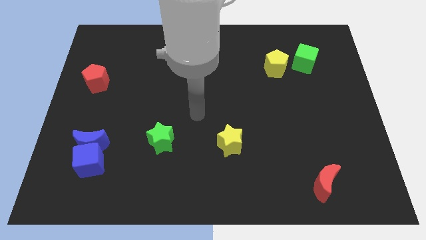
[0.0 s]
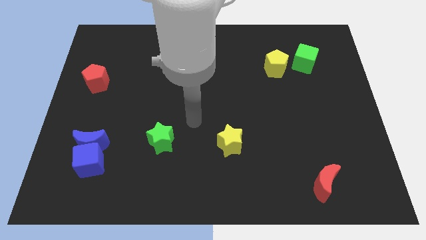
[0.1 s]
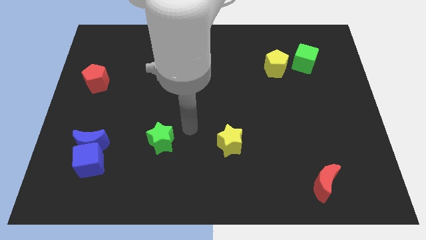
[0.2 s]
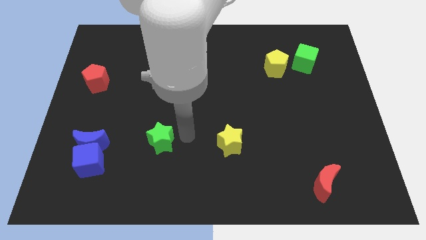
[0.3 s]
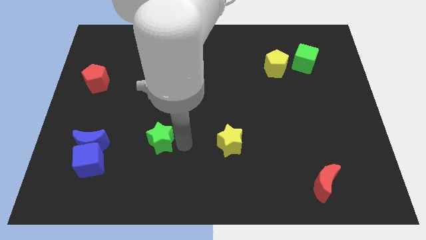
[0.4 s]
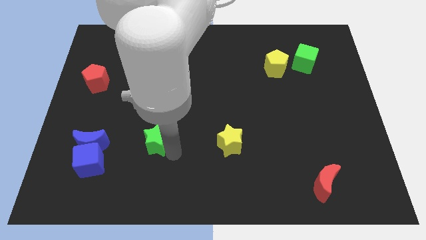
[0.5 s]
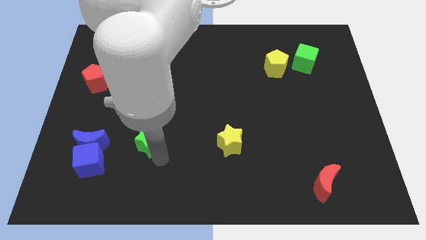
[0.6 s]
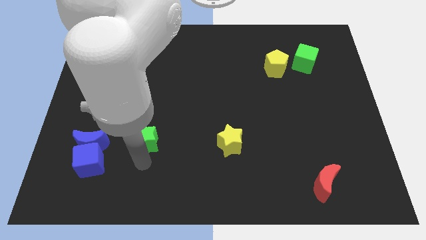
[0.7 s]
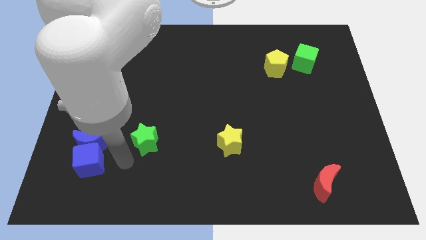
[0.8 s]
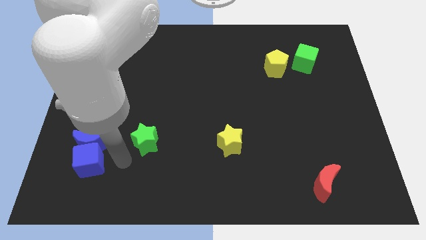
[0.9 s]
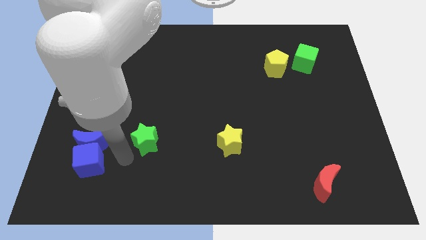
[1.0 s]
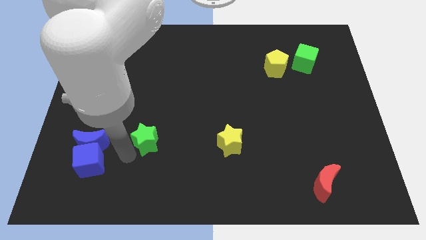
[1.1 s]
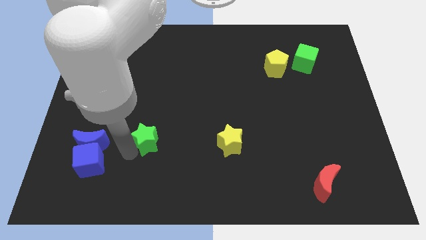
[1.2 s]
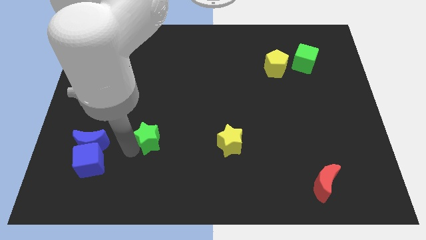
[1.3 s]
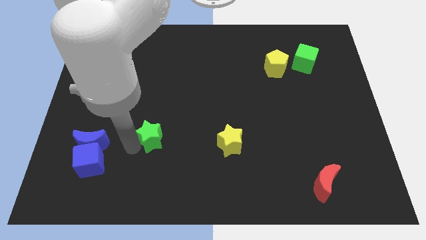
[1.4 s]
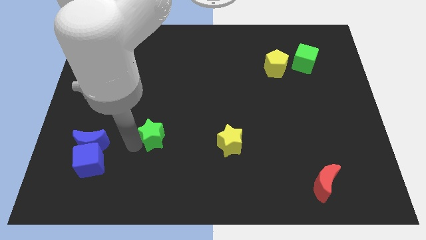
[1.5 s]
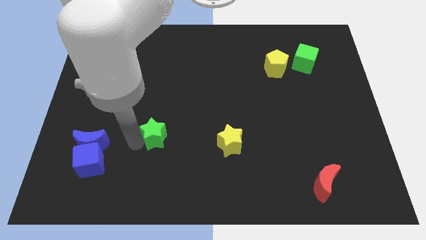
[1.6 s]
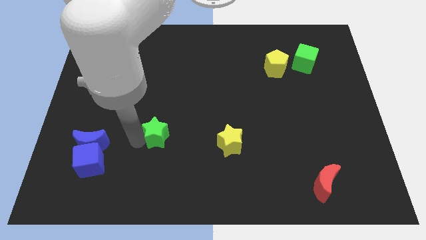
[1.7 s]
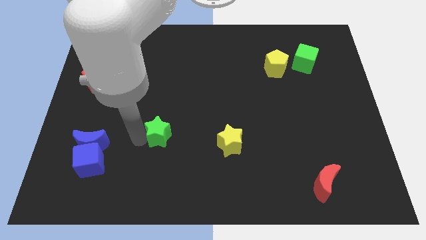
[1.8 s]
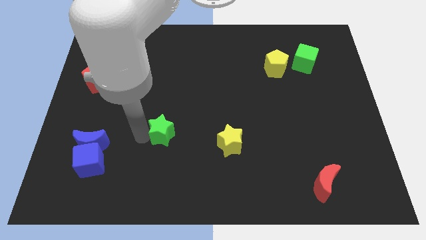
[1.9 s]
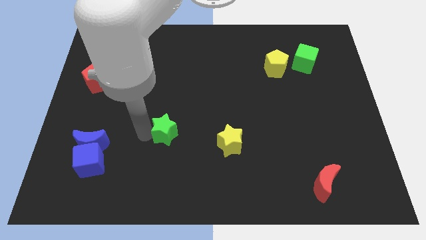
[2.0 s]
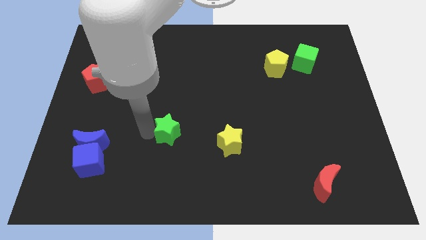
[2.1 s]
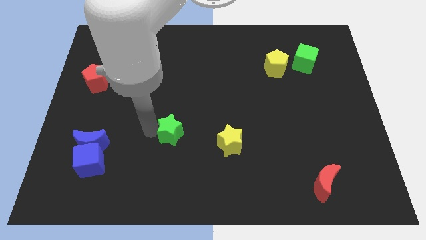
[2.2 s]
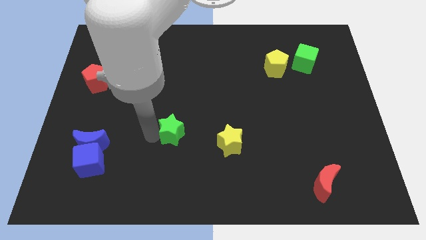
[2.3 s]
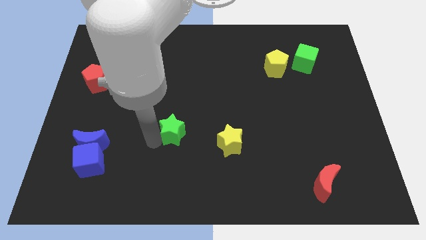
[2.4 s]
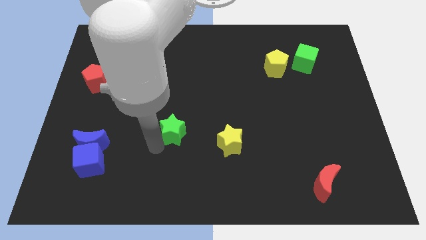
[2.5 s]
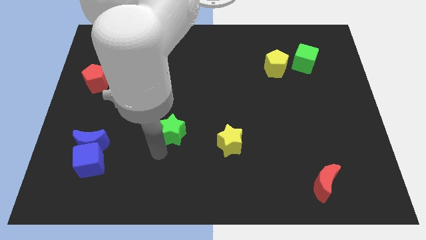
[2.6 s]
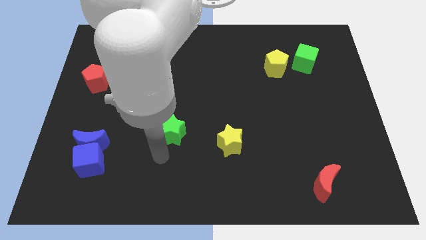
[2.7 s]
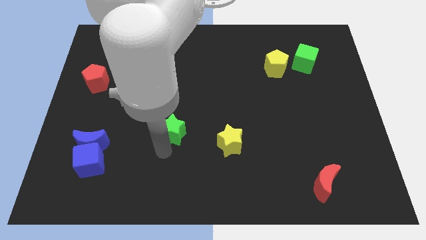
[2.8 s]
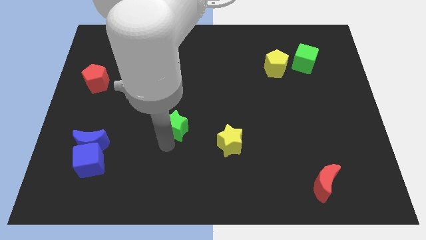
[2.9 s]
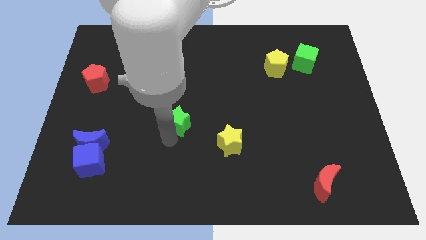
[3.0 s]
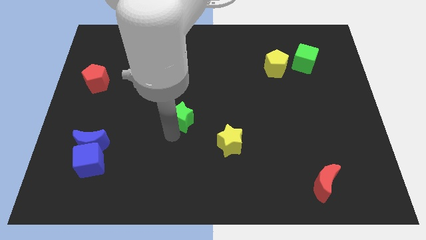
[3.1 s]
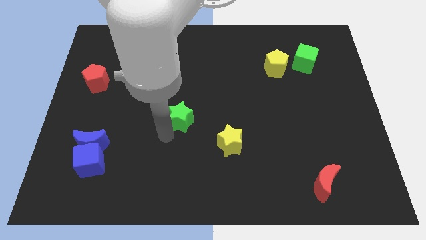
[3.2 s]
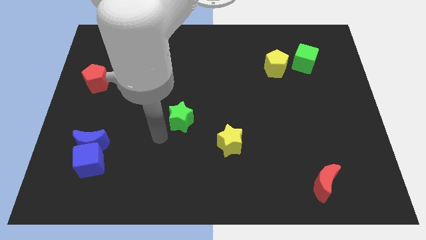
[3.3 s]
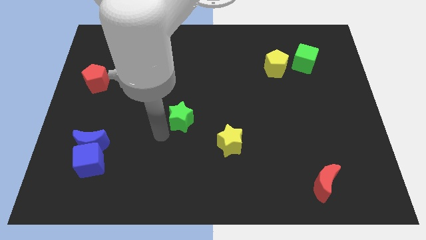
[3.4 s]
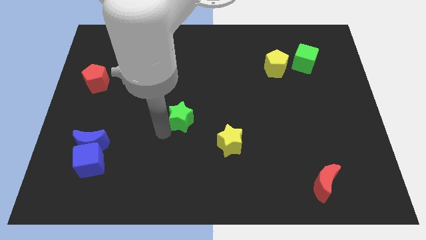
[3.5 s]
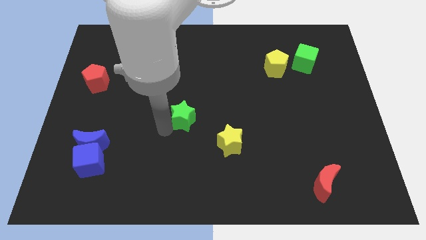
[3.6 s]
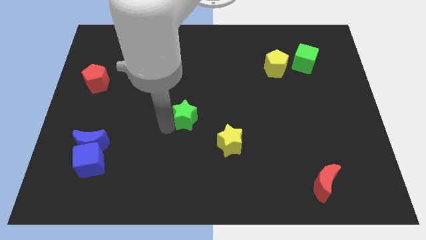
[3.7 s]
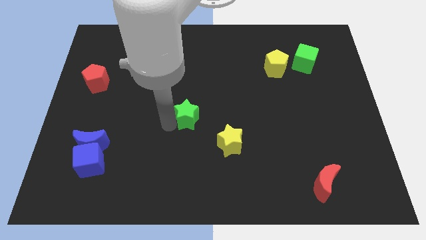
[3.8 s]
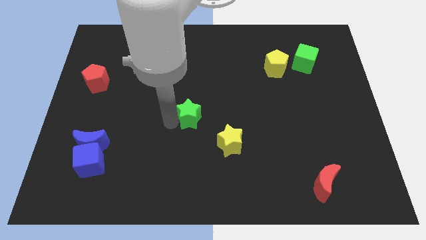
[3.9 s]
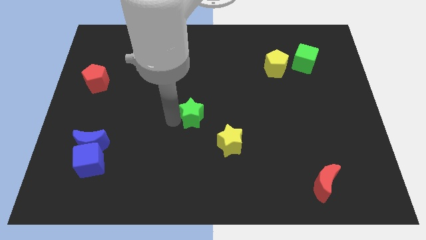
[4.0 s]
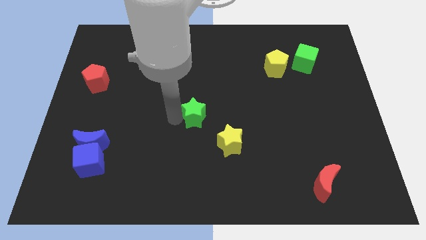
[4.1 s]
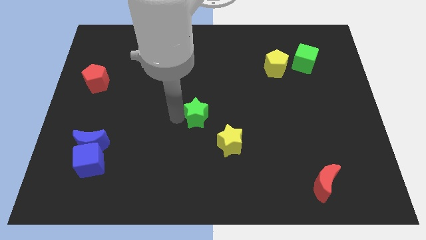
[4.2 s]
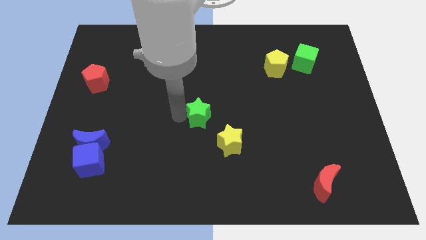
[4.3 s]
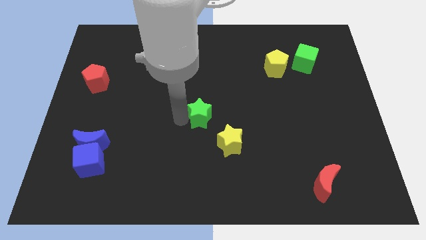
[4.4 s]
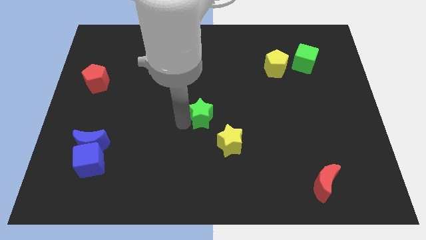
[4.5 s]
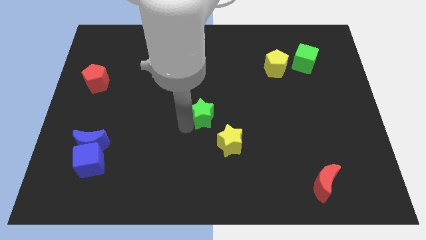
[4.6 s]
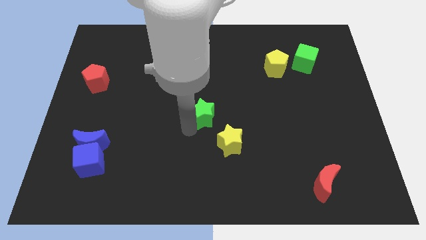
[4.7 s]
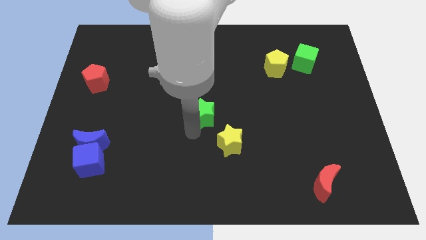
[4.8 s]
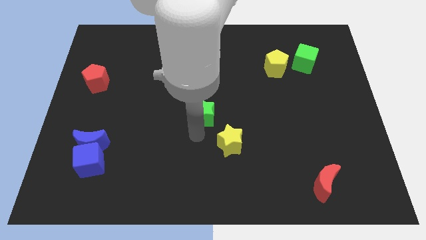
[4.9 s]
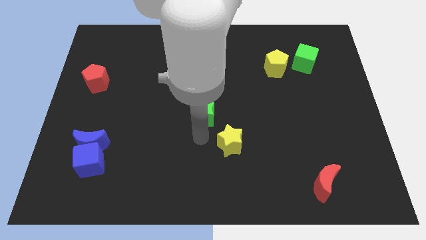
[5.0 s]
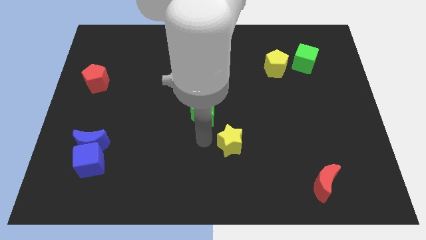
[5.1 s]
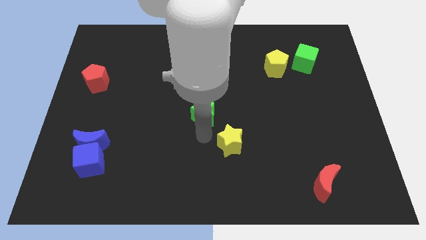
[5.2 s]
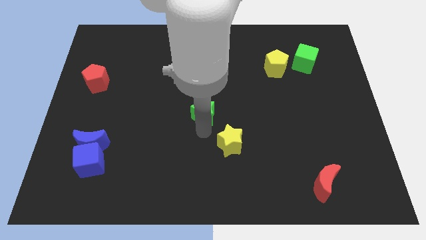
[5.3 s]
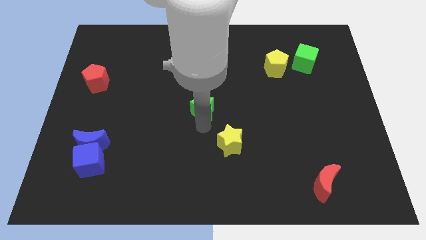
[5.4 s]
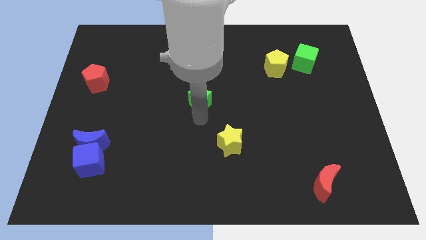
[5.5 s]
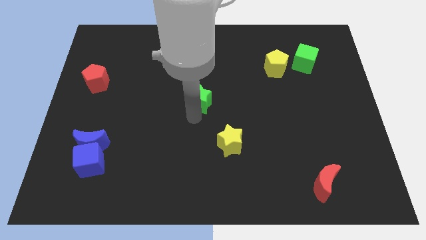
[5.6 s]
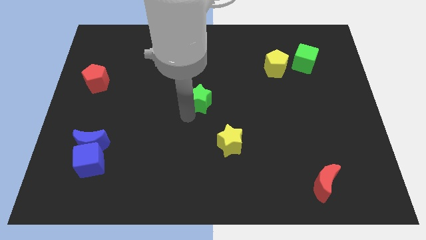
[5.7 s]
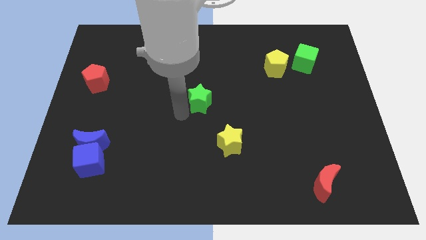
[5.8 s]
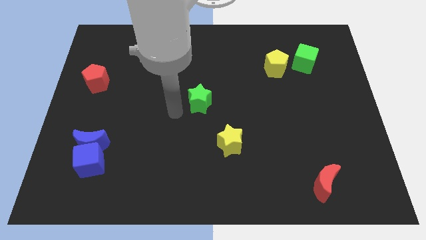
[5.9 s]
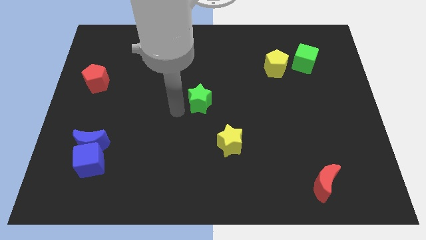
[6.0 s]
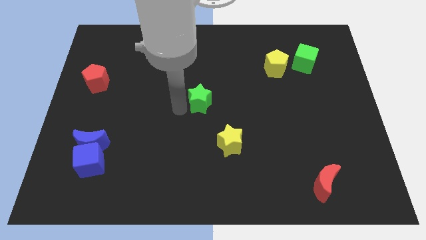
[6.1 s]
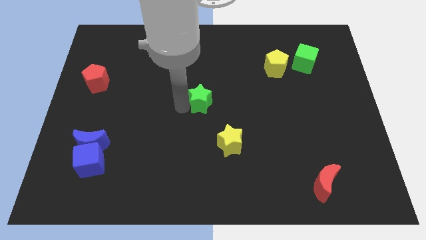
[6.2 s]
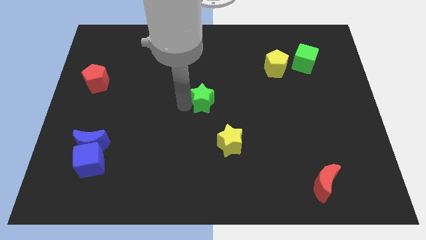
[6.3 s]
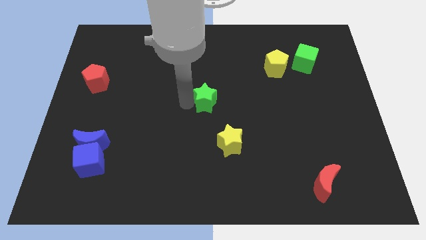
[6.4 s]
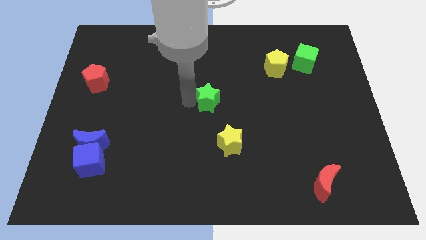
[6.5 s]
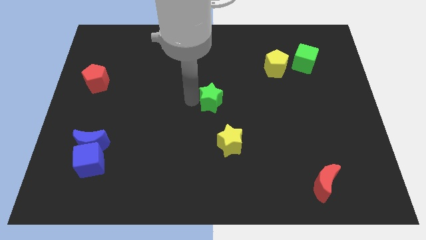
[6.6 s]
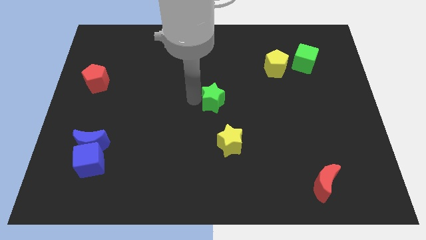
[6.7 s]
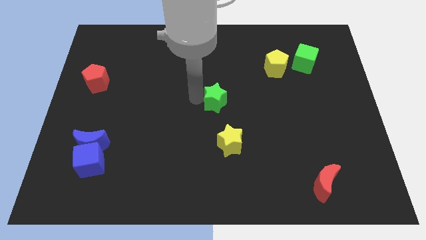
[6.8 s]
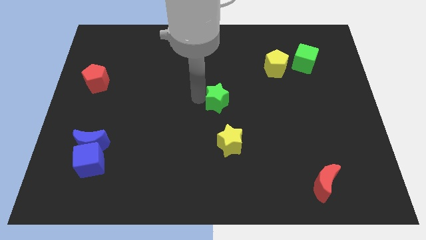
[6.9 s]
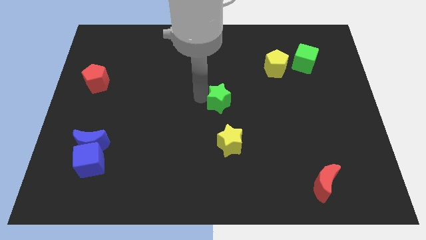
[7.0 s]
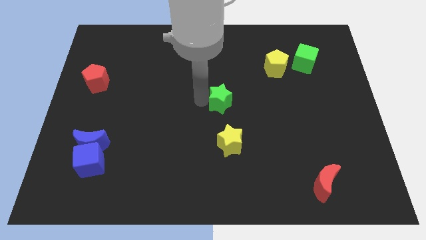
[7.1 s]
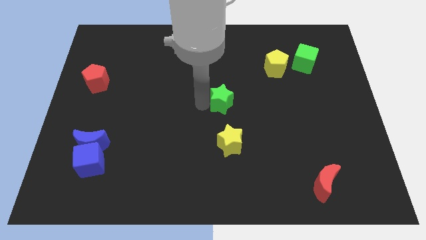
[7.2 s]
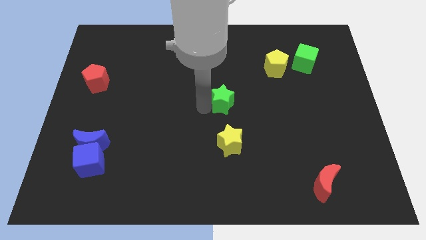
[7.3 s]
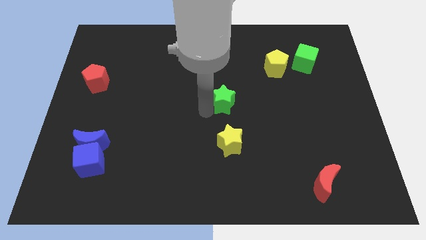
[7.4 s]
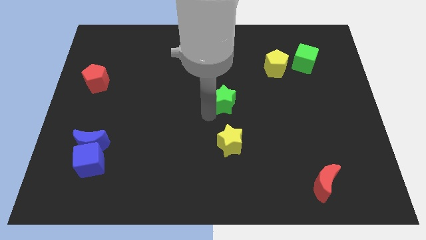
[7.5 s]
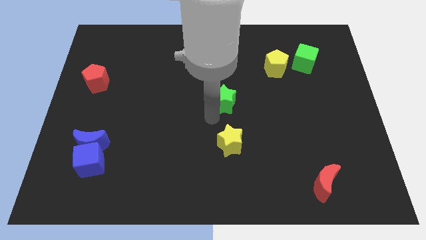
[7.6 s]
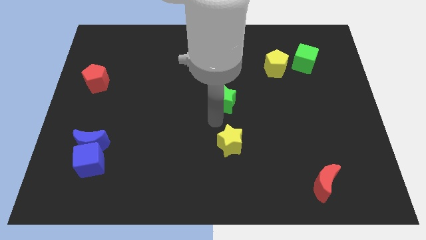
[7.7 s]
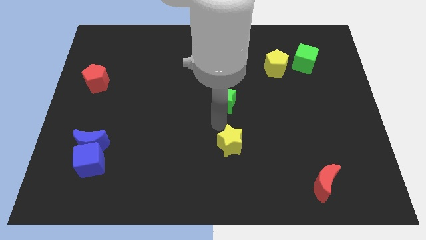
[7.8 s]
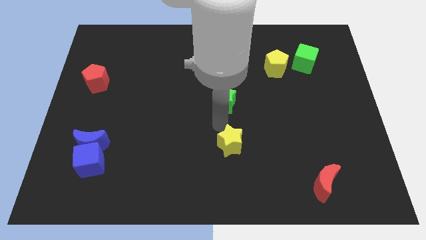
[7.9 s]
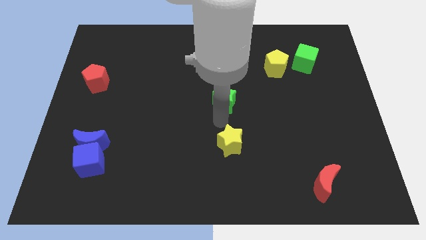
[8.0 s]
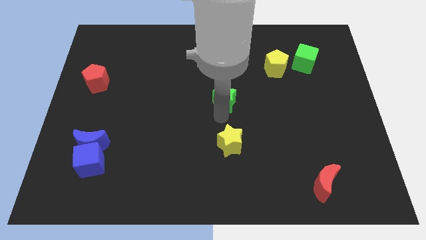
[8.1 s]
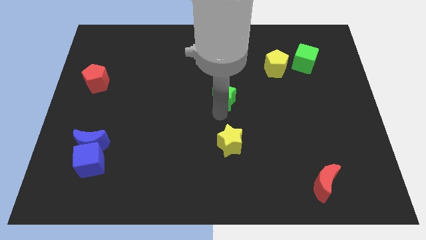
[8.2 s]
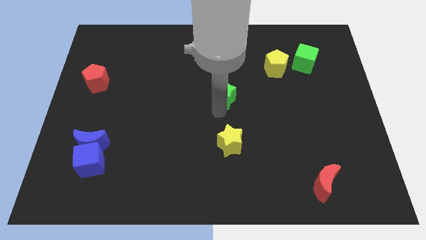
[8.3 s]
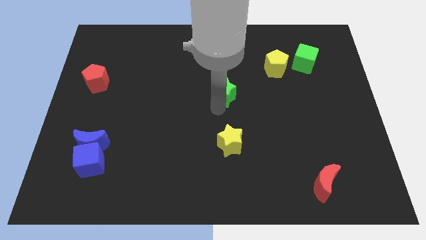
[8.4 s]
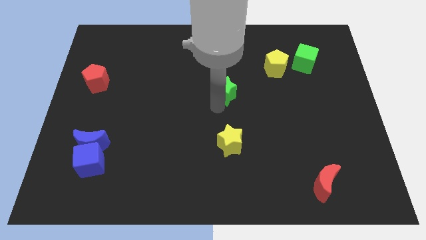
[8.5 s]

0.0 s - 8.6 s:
slide the green star up and right diagonally
